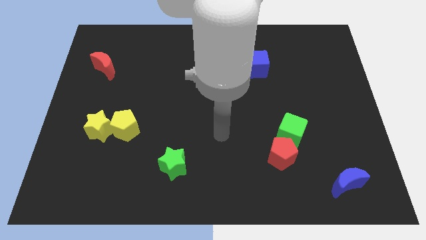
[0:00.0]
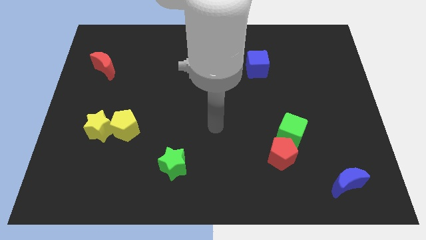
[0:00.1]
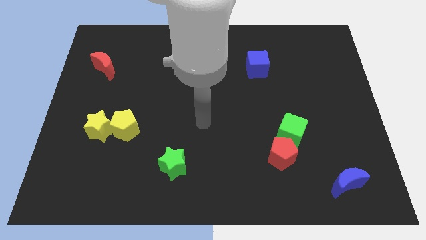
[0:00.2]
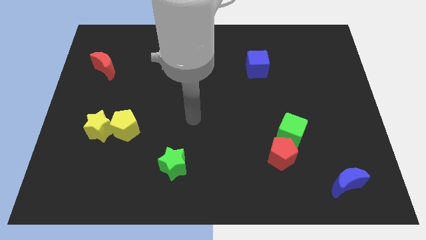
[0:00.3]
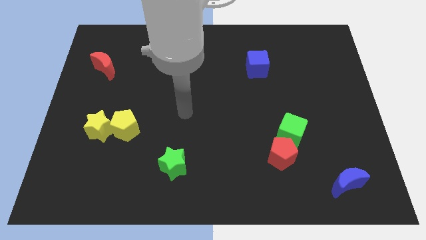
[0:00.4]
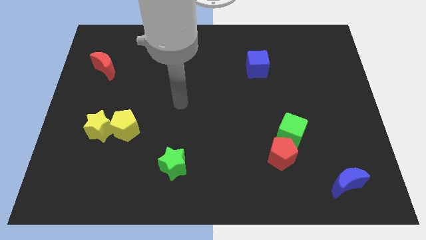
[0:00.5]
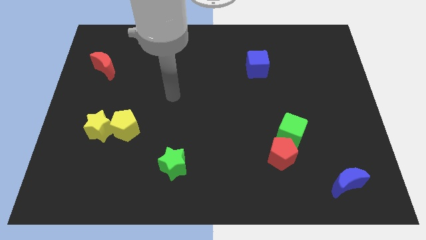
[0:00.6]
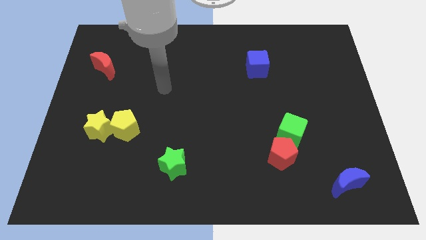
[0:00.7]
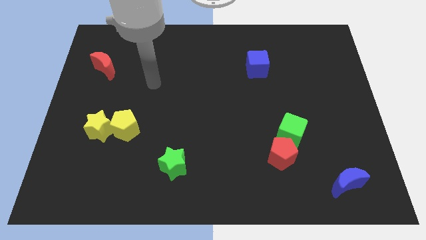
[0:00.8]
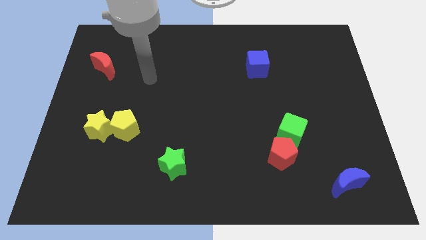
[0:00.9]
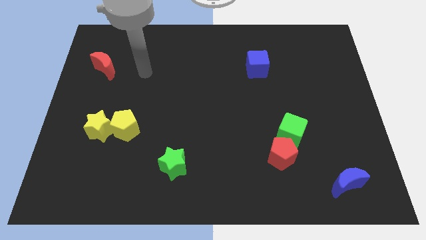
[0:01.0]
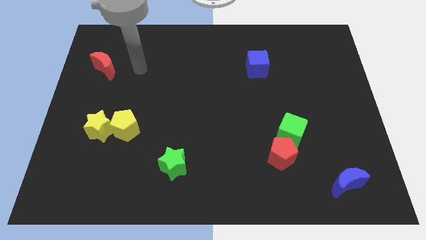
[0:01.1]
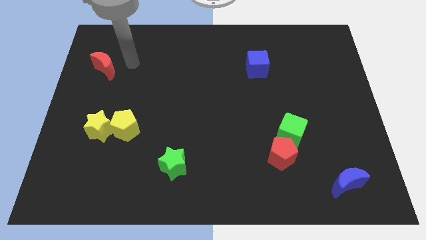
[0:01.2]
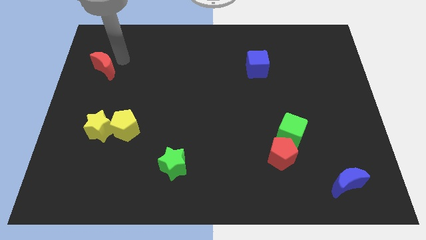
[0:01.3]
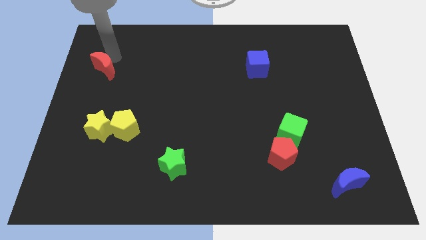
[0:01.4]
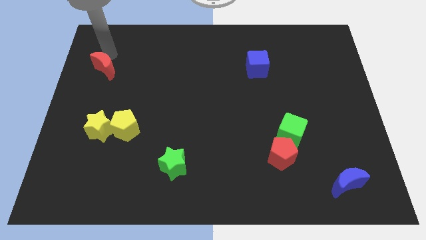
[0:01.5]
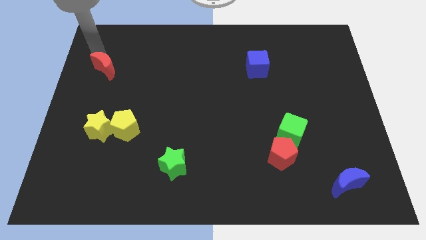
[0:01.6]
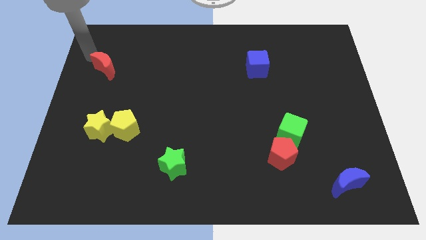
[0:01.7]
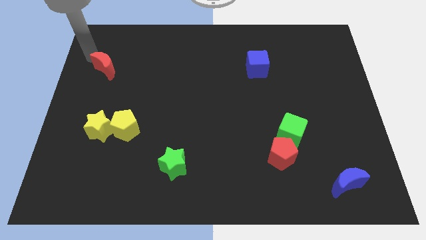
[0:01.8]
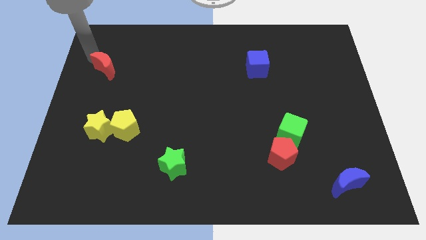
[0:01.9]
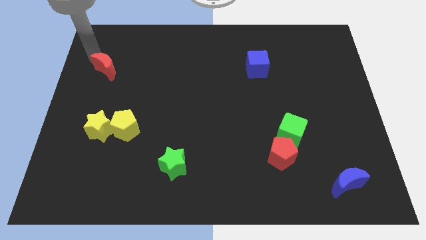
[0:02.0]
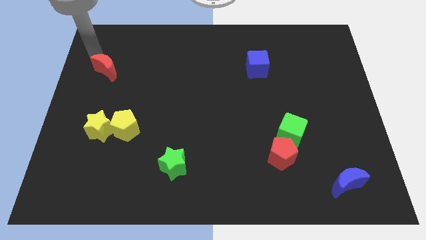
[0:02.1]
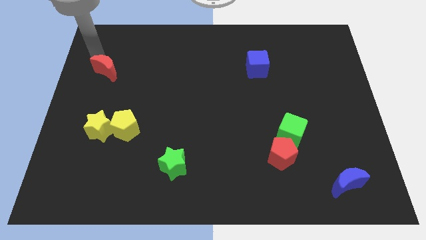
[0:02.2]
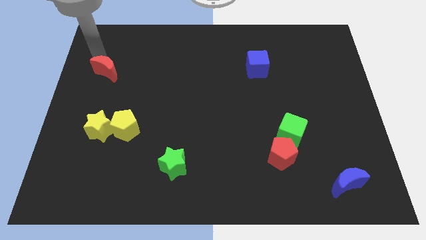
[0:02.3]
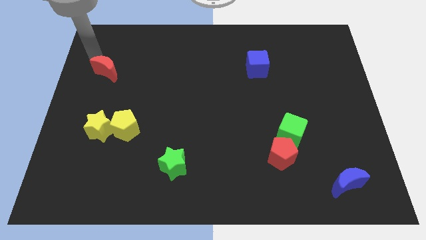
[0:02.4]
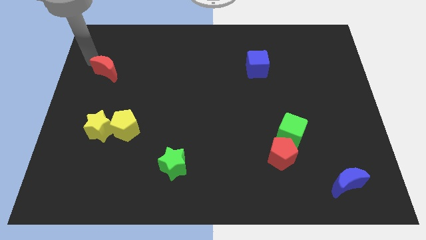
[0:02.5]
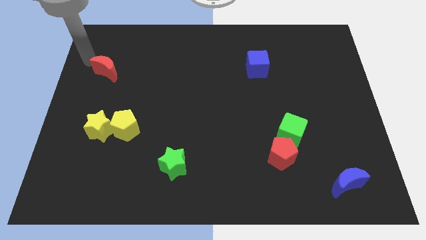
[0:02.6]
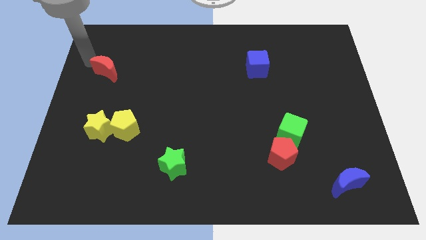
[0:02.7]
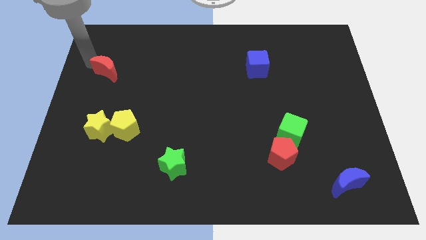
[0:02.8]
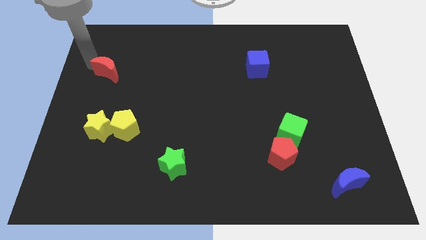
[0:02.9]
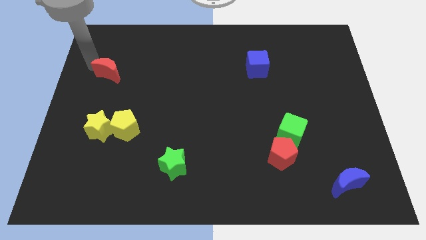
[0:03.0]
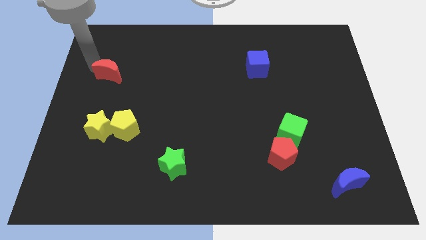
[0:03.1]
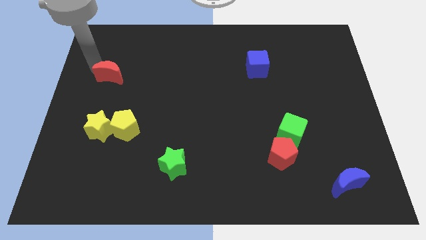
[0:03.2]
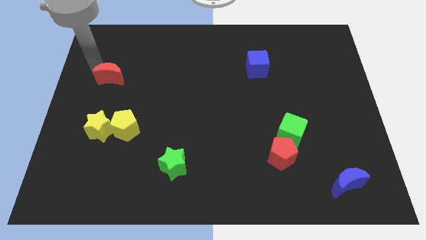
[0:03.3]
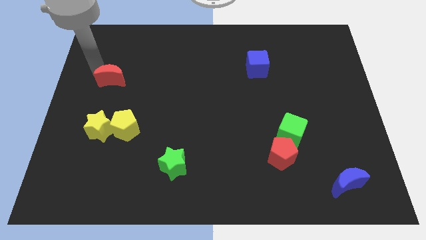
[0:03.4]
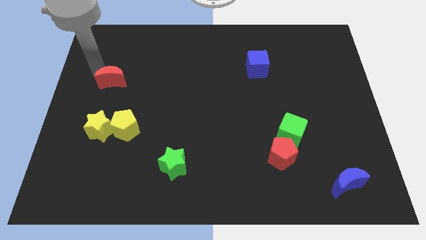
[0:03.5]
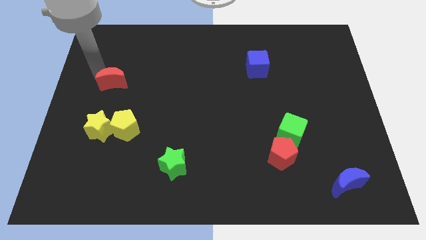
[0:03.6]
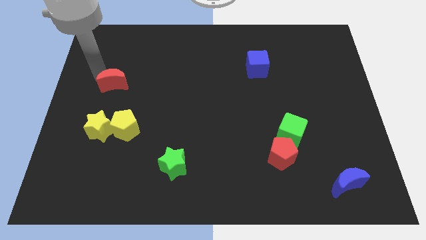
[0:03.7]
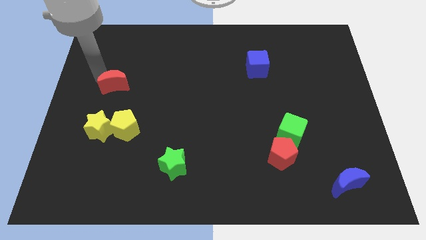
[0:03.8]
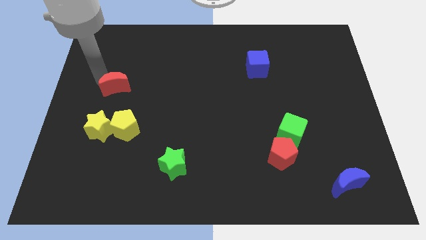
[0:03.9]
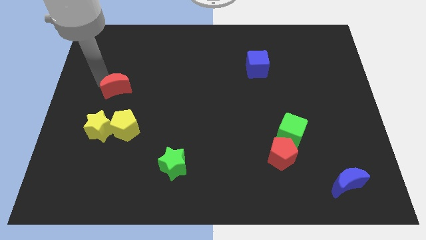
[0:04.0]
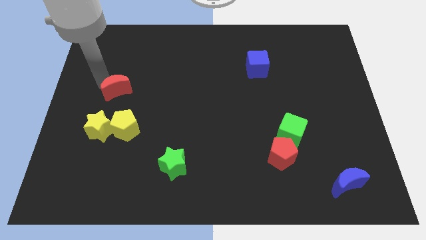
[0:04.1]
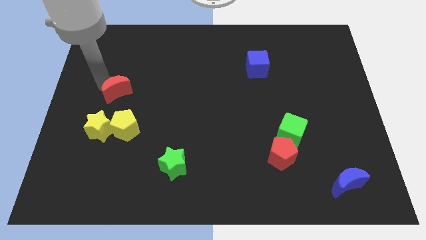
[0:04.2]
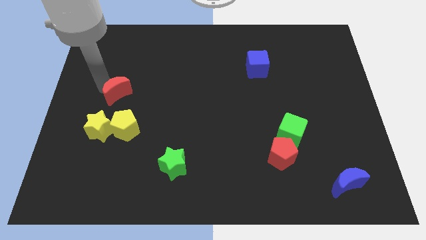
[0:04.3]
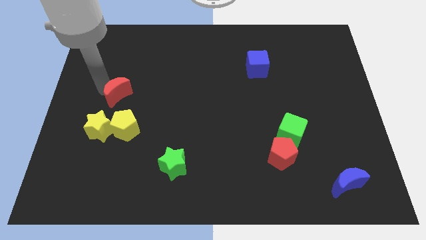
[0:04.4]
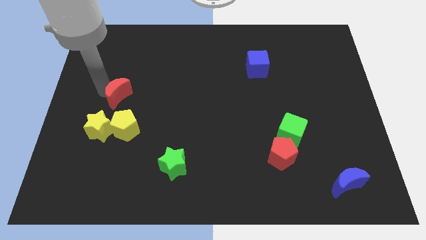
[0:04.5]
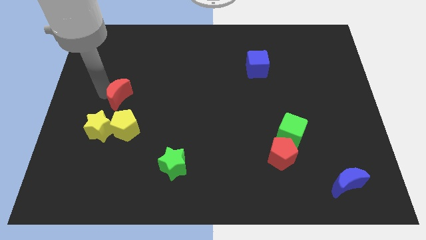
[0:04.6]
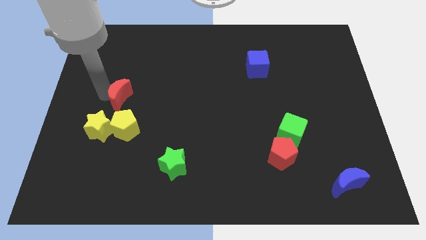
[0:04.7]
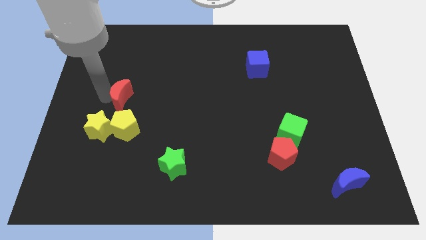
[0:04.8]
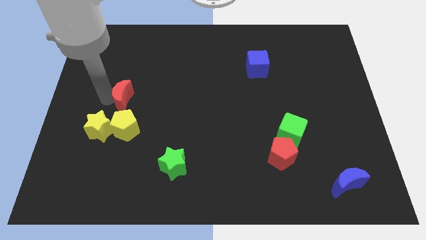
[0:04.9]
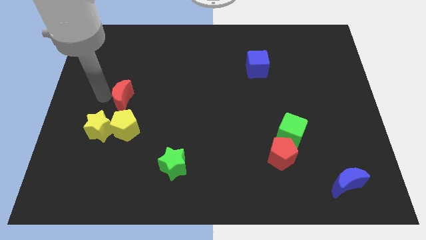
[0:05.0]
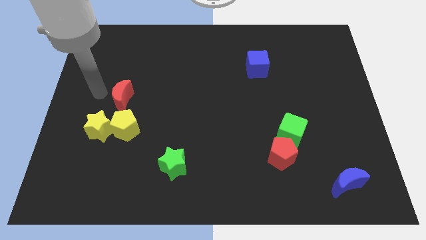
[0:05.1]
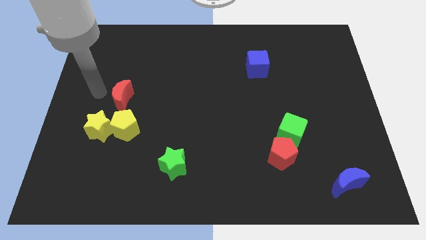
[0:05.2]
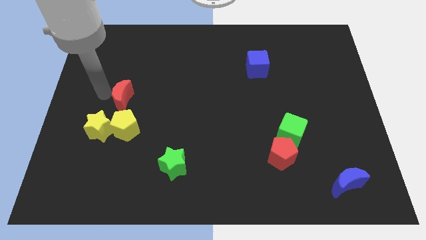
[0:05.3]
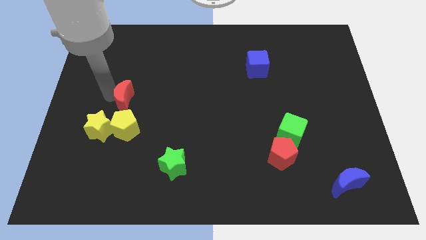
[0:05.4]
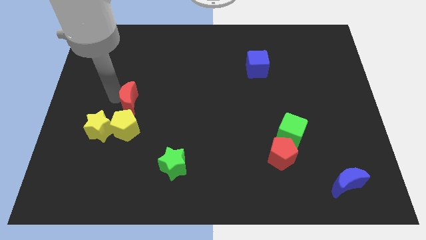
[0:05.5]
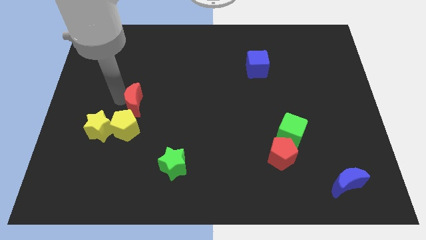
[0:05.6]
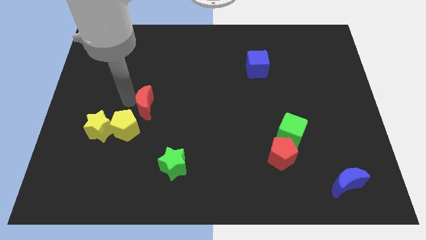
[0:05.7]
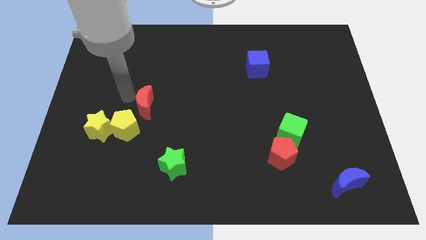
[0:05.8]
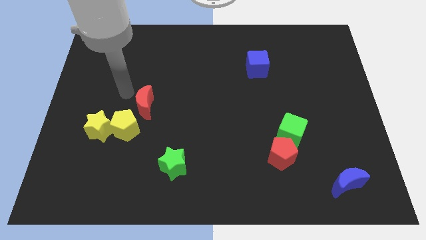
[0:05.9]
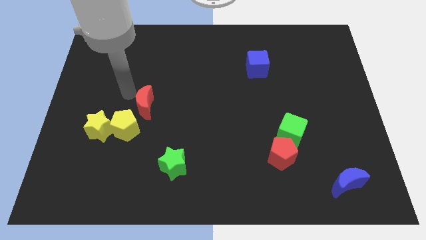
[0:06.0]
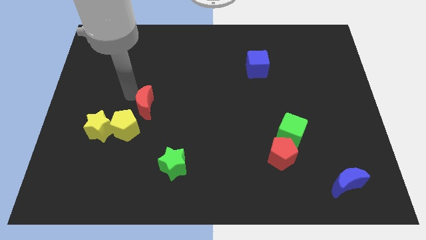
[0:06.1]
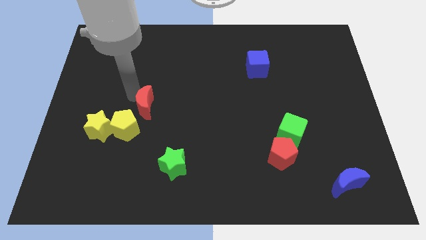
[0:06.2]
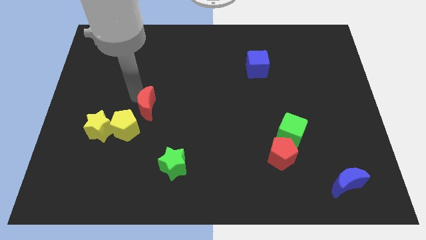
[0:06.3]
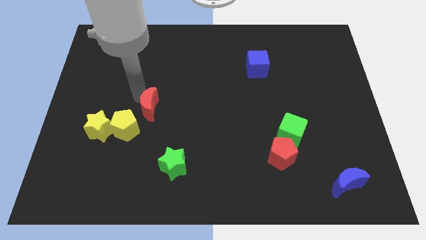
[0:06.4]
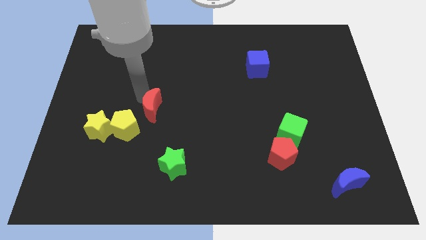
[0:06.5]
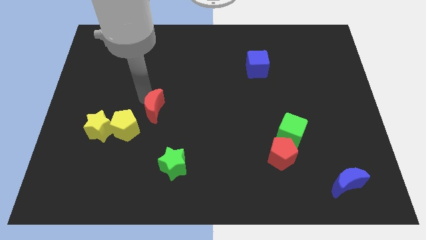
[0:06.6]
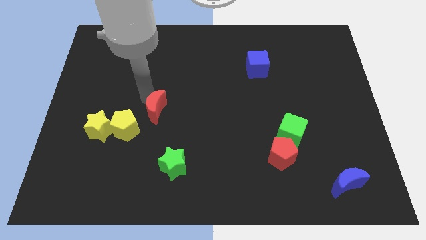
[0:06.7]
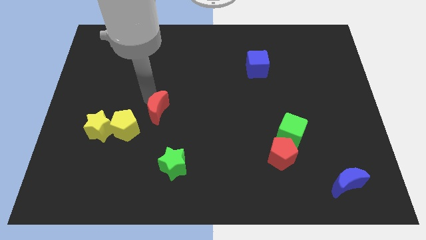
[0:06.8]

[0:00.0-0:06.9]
push the red moon diagonally downwards and right

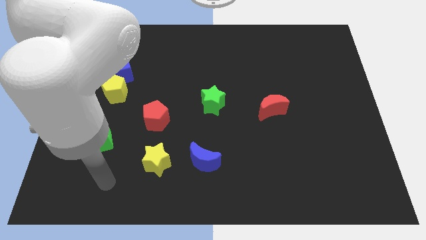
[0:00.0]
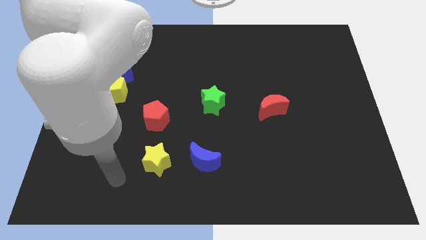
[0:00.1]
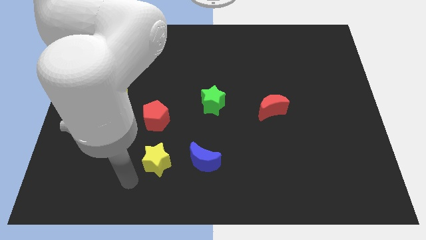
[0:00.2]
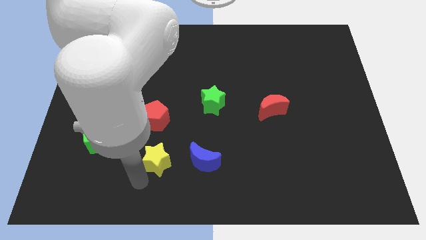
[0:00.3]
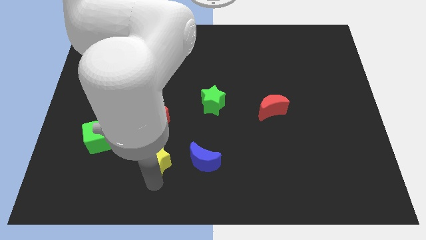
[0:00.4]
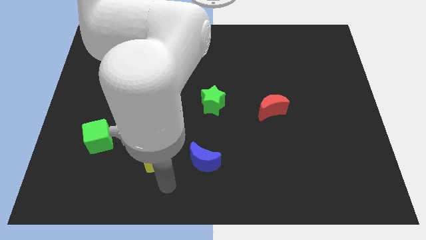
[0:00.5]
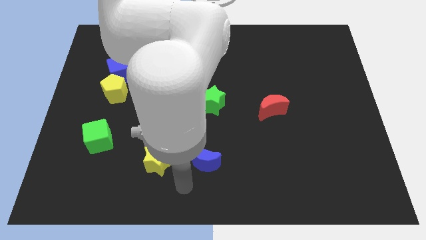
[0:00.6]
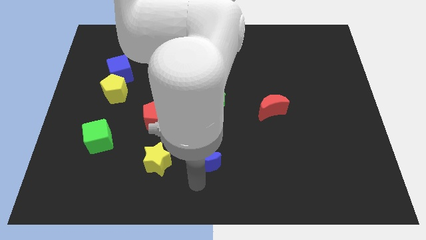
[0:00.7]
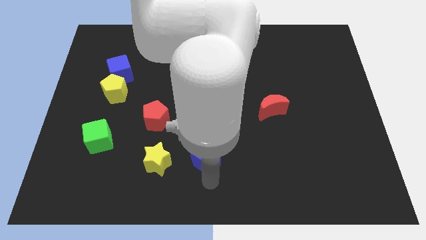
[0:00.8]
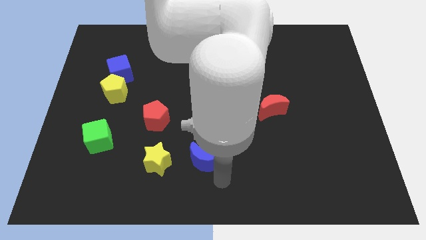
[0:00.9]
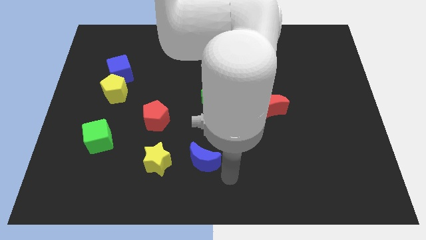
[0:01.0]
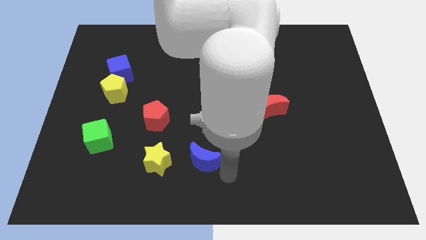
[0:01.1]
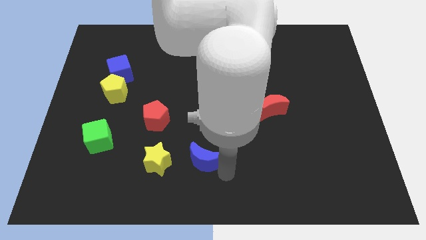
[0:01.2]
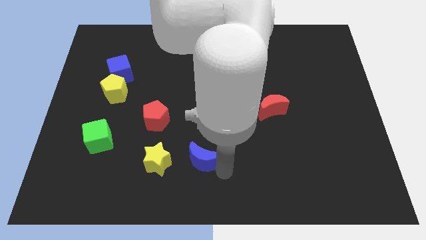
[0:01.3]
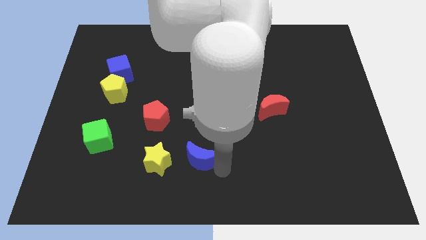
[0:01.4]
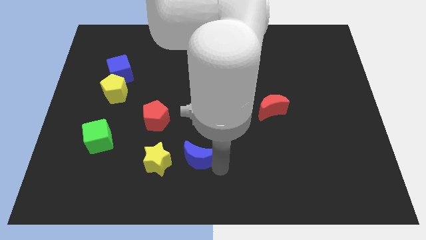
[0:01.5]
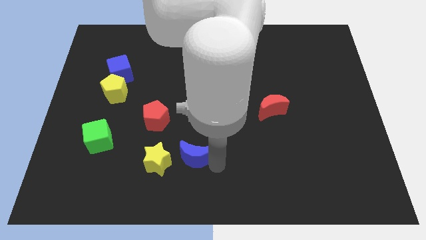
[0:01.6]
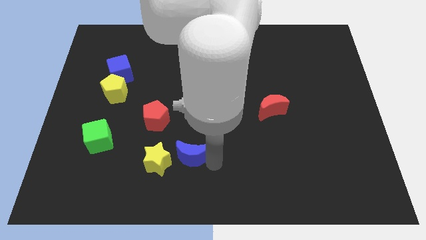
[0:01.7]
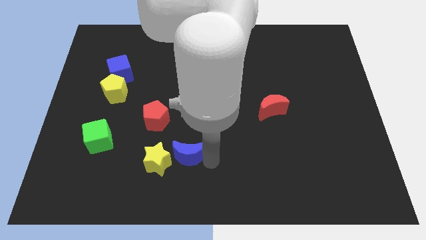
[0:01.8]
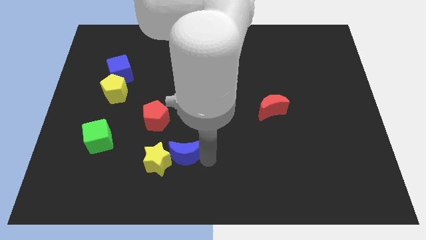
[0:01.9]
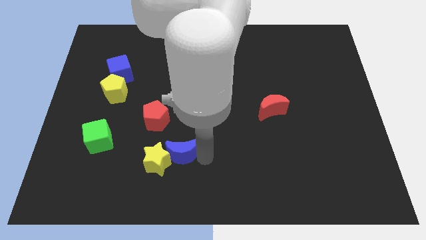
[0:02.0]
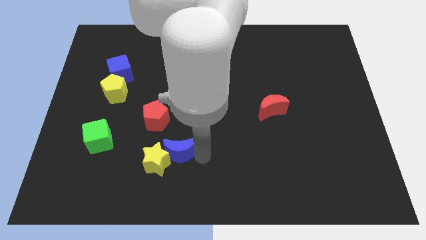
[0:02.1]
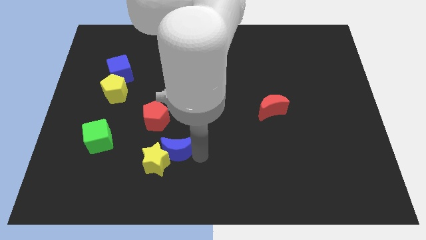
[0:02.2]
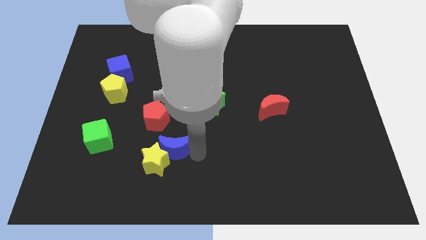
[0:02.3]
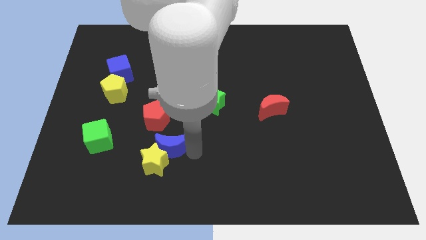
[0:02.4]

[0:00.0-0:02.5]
push the blue moon somewhat to the left
